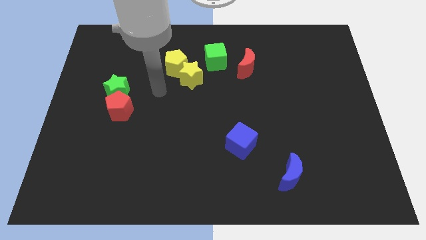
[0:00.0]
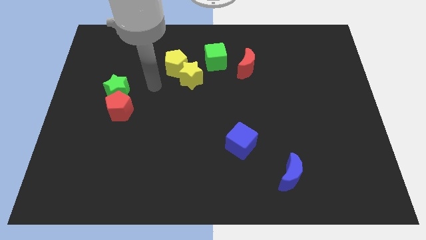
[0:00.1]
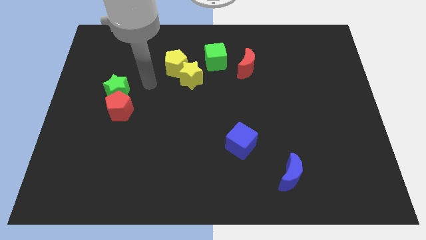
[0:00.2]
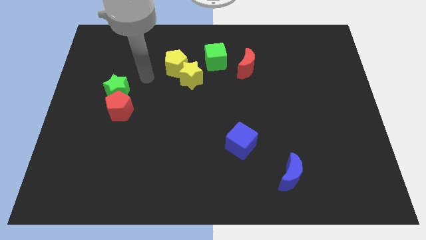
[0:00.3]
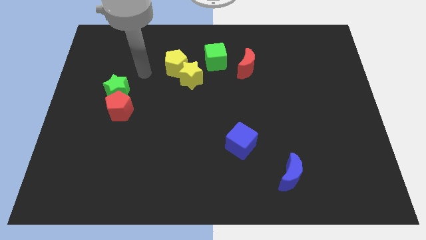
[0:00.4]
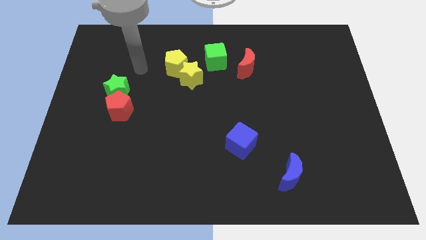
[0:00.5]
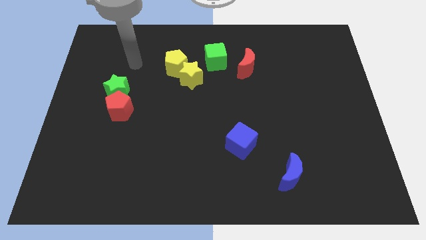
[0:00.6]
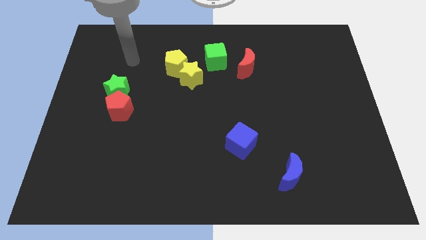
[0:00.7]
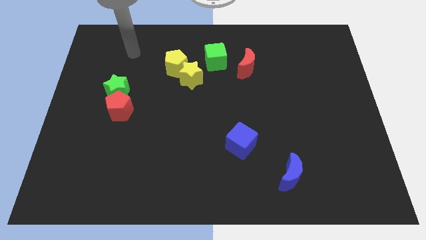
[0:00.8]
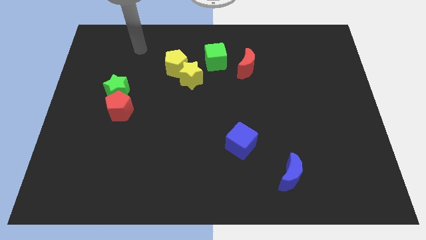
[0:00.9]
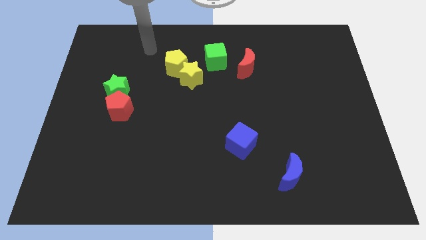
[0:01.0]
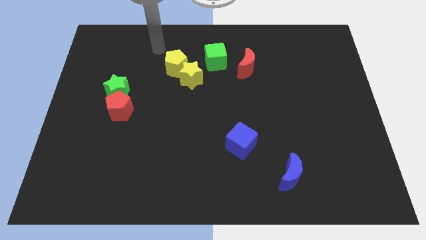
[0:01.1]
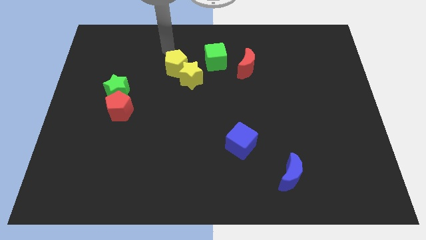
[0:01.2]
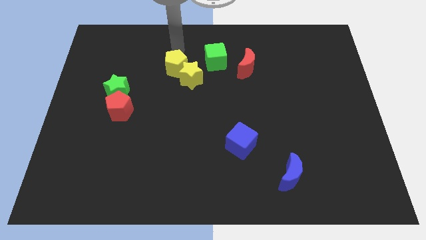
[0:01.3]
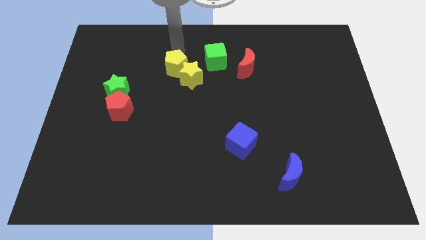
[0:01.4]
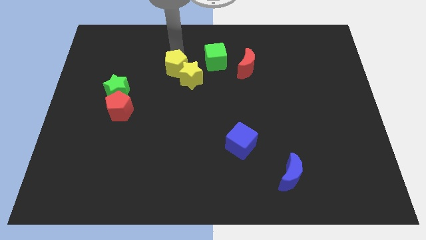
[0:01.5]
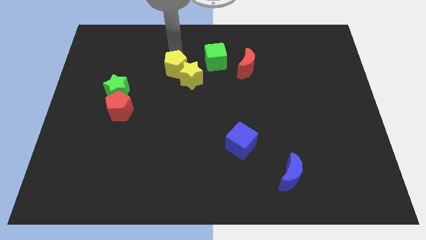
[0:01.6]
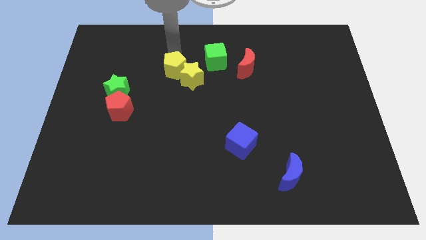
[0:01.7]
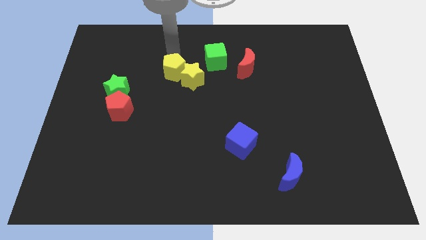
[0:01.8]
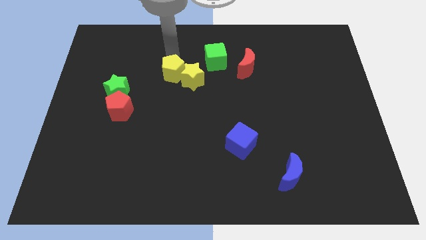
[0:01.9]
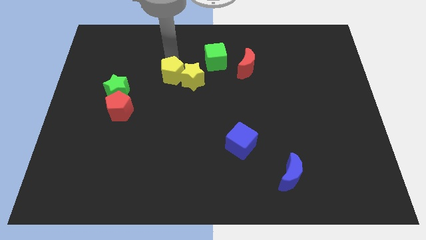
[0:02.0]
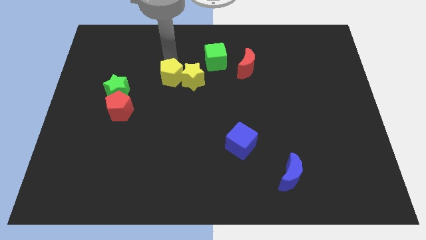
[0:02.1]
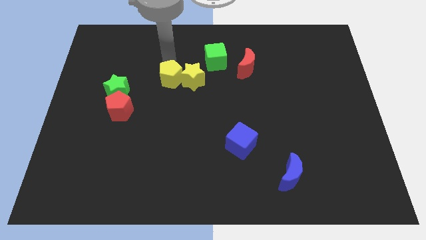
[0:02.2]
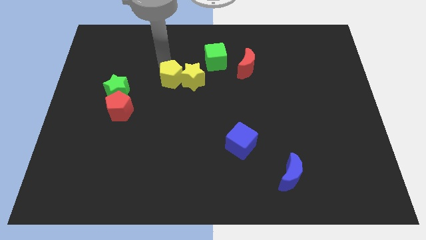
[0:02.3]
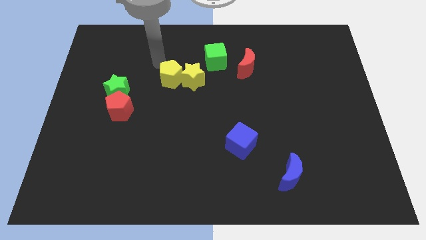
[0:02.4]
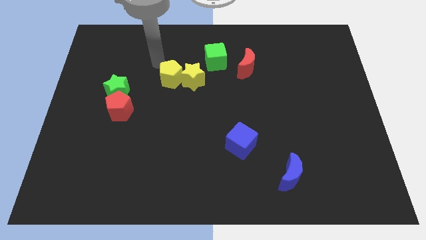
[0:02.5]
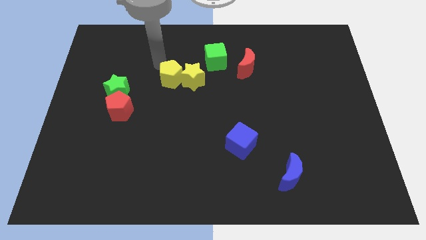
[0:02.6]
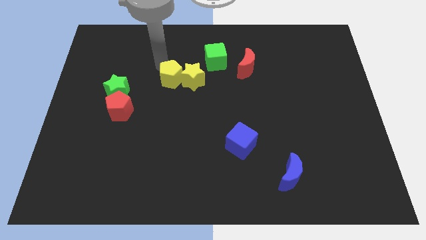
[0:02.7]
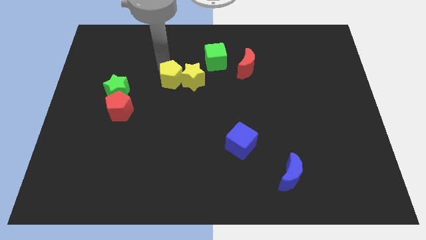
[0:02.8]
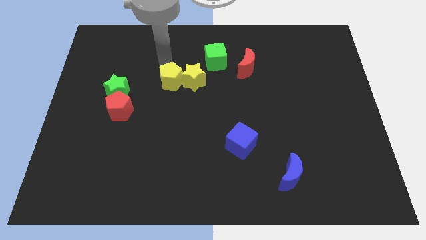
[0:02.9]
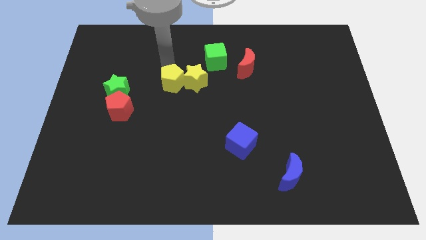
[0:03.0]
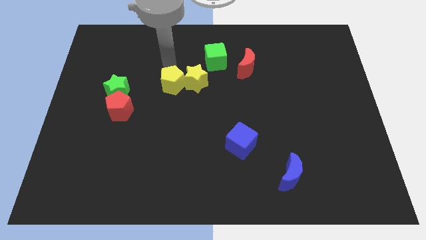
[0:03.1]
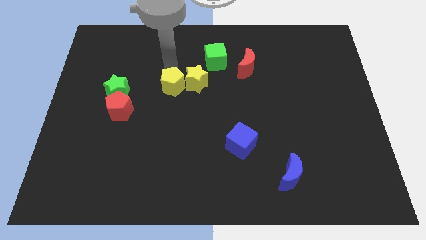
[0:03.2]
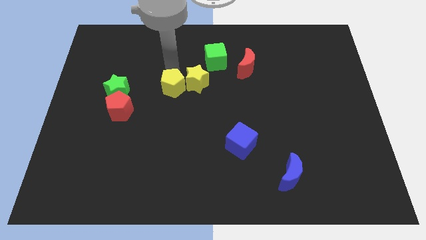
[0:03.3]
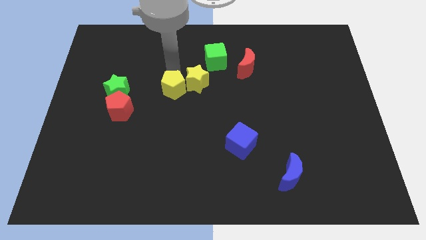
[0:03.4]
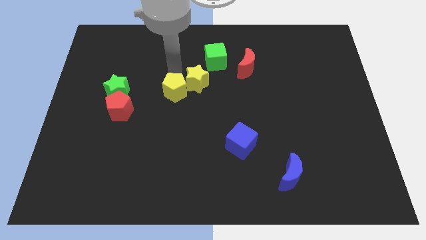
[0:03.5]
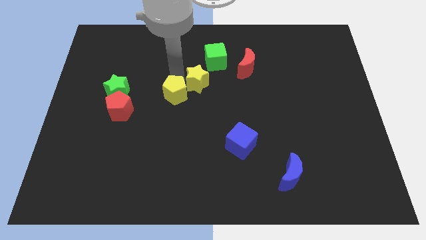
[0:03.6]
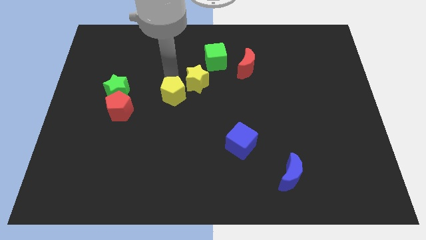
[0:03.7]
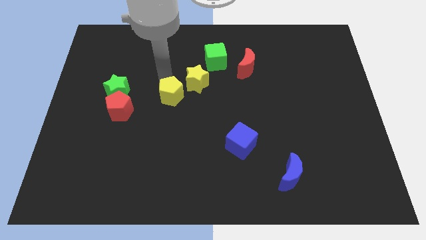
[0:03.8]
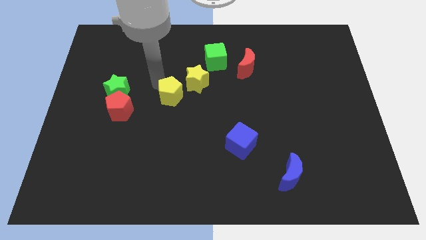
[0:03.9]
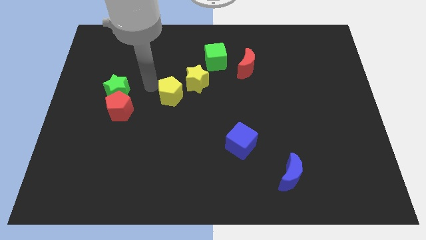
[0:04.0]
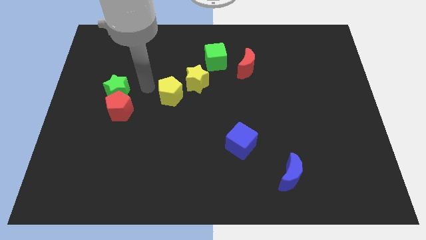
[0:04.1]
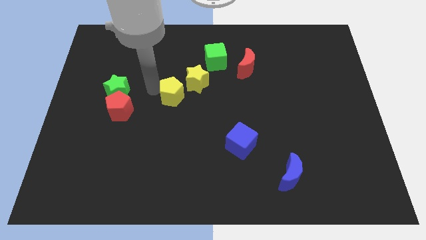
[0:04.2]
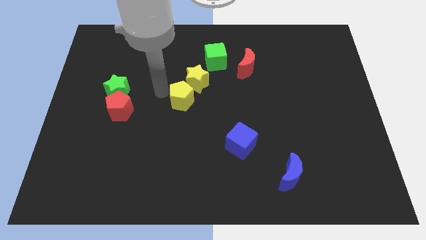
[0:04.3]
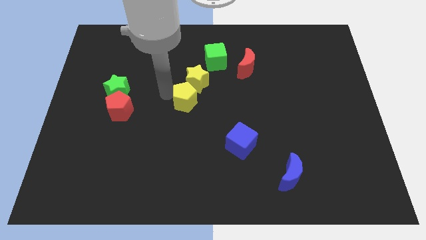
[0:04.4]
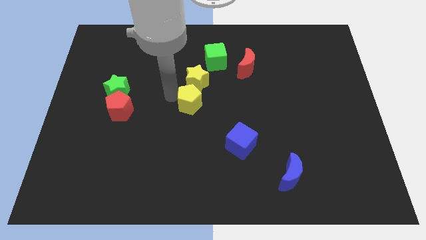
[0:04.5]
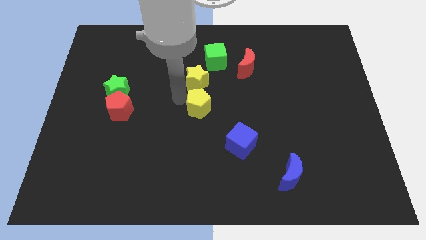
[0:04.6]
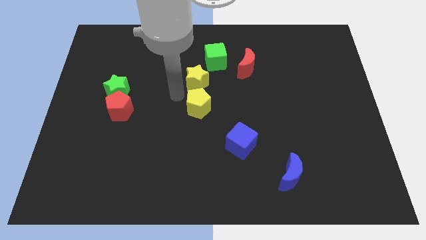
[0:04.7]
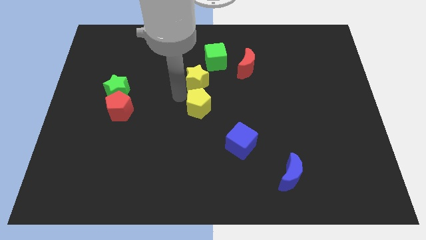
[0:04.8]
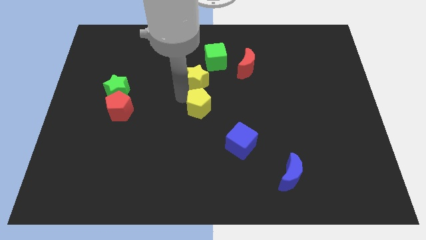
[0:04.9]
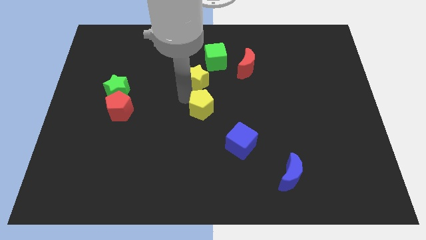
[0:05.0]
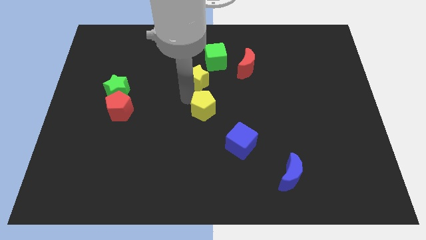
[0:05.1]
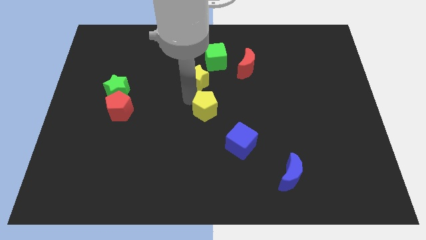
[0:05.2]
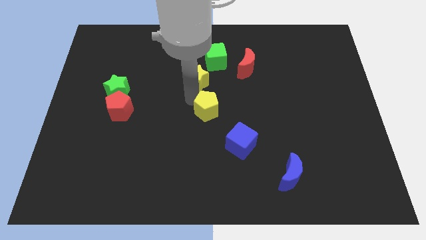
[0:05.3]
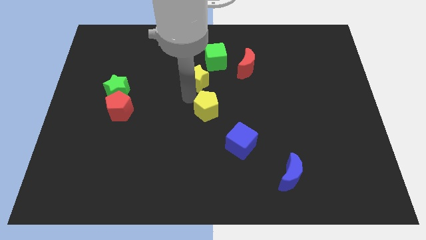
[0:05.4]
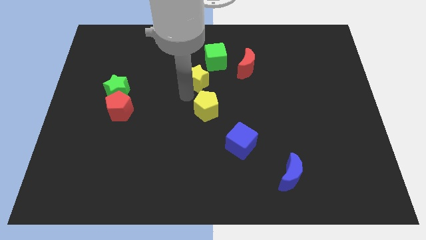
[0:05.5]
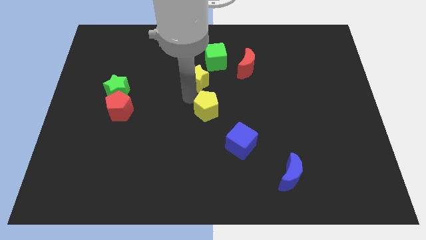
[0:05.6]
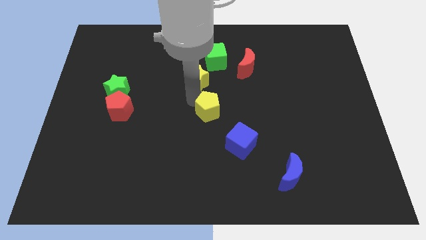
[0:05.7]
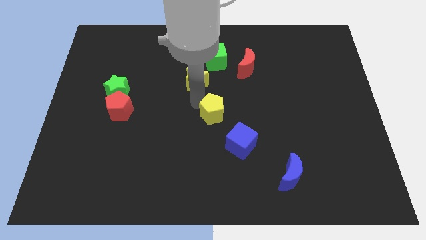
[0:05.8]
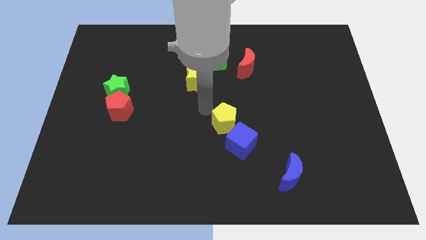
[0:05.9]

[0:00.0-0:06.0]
slide the yellow pentagon down and to the right diagonally

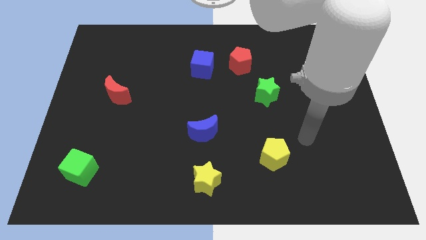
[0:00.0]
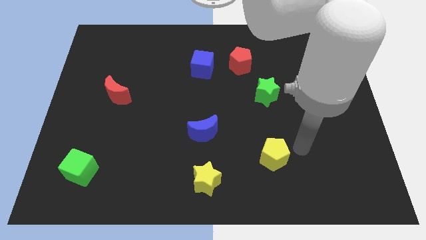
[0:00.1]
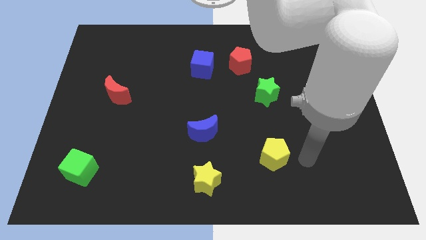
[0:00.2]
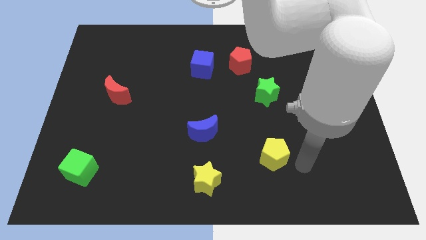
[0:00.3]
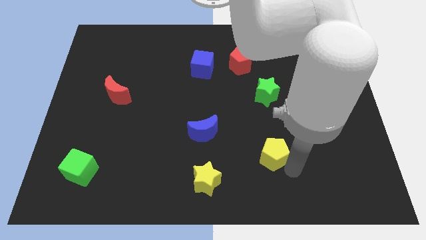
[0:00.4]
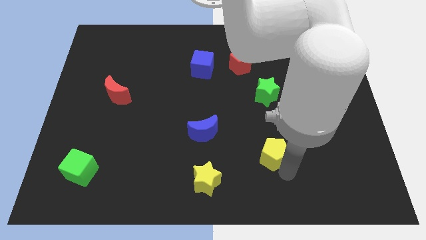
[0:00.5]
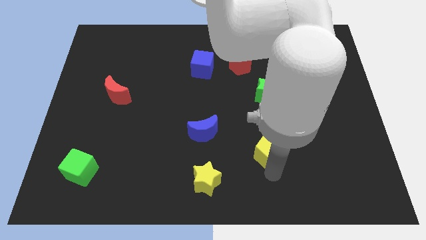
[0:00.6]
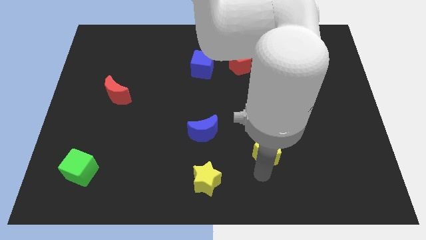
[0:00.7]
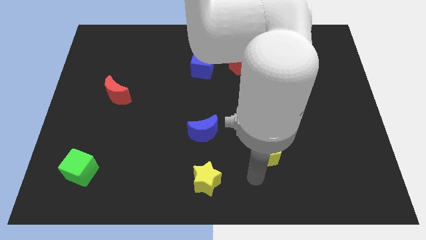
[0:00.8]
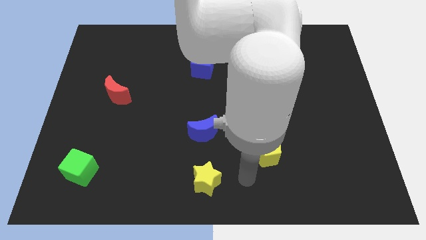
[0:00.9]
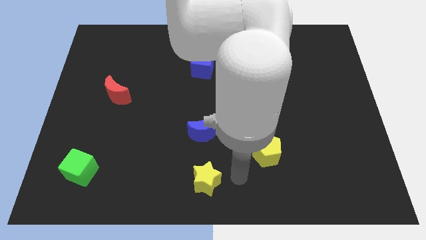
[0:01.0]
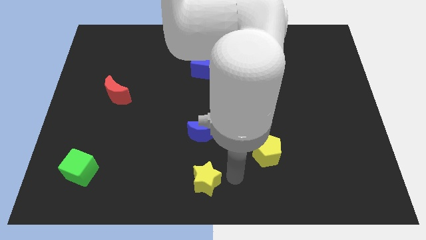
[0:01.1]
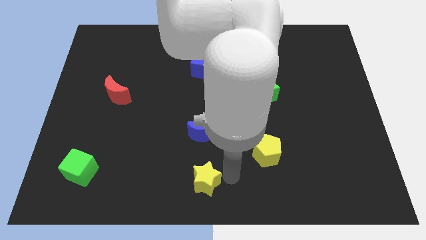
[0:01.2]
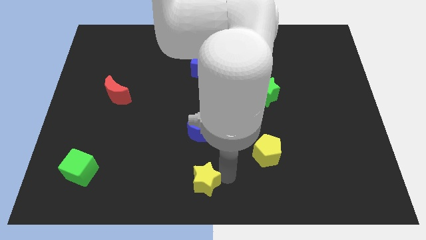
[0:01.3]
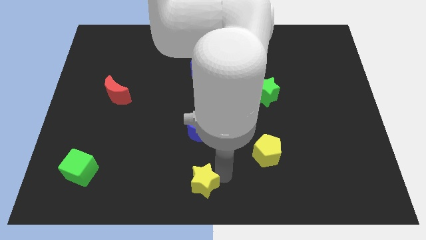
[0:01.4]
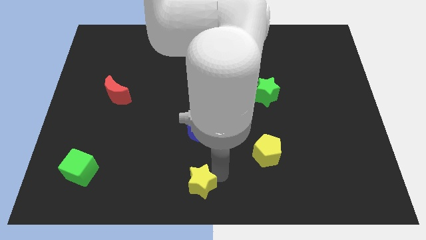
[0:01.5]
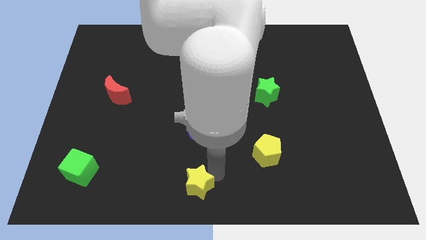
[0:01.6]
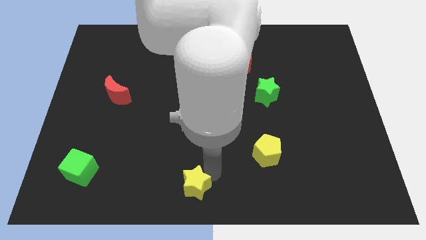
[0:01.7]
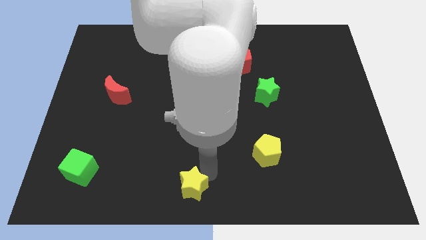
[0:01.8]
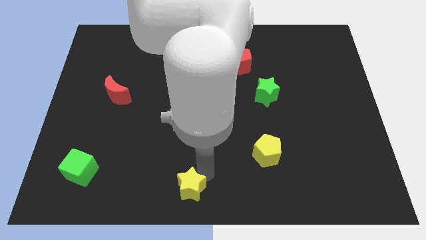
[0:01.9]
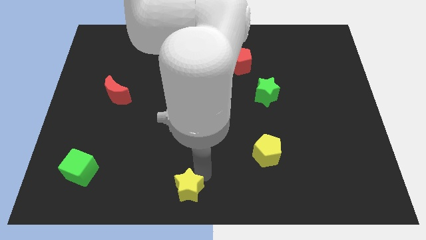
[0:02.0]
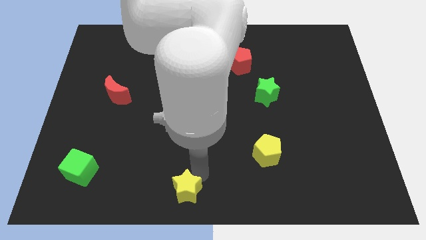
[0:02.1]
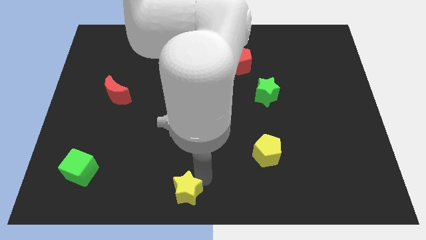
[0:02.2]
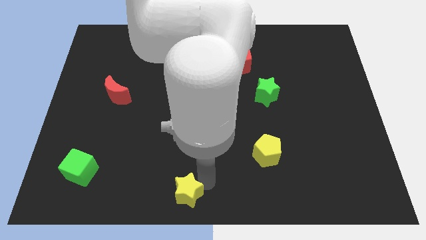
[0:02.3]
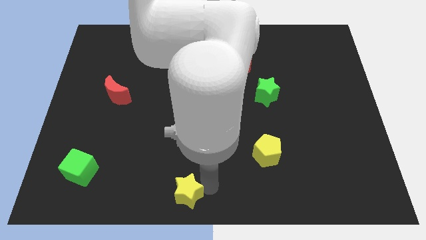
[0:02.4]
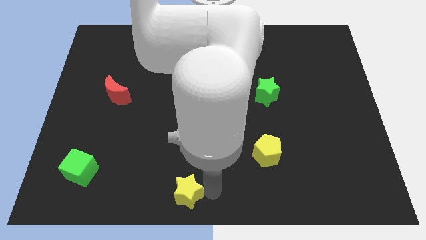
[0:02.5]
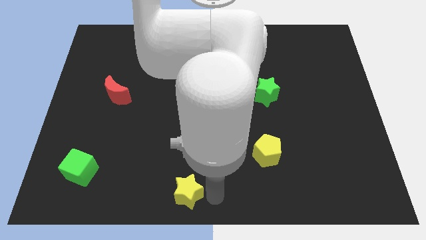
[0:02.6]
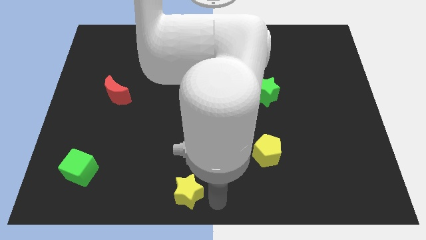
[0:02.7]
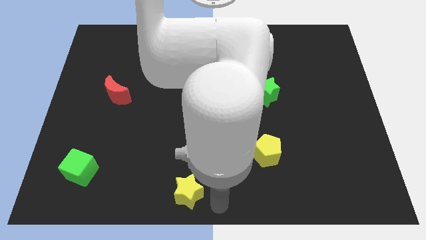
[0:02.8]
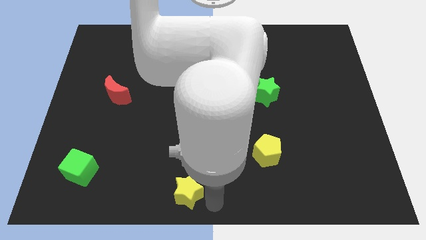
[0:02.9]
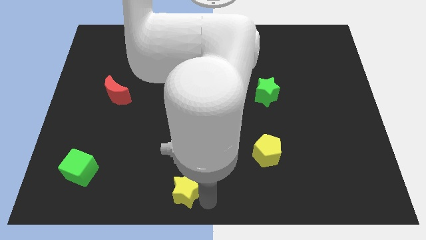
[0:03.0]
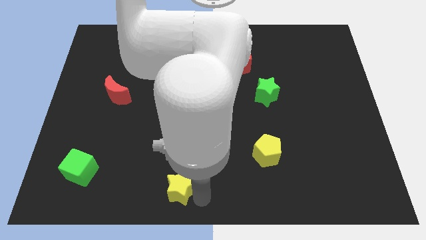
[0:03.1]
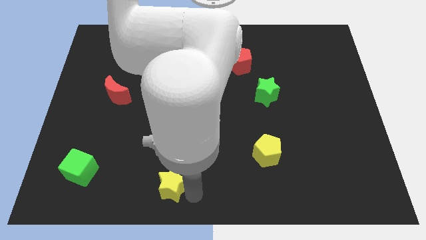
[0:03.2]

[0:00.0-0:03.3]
slightly move the yellow star to the left
